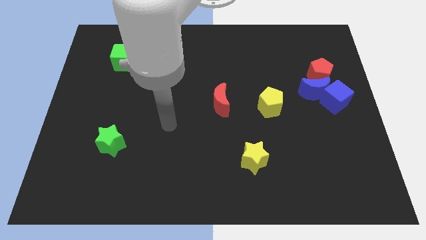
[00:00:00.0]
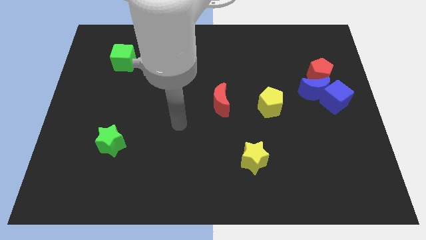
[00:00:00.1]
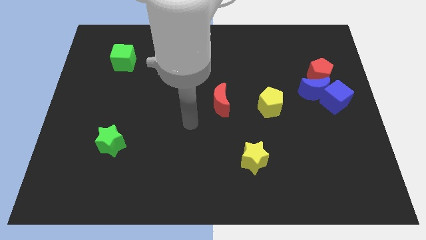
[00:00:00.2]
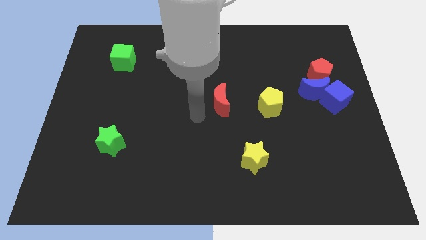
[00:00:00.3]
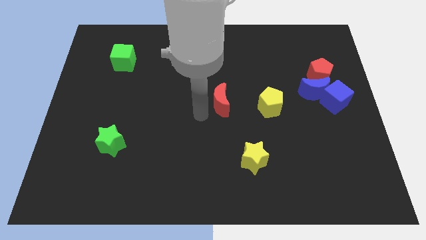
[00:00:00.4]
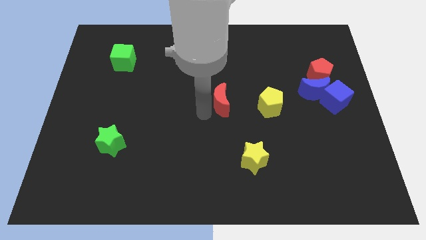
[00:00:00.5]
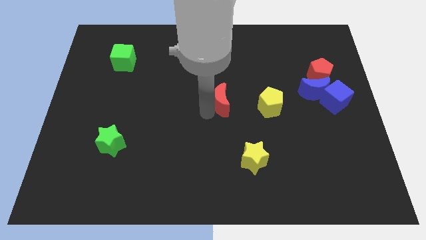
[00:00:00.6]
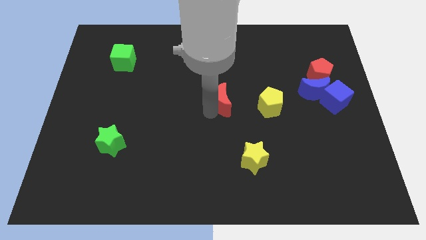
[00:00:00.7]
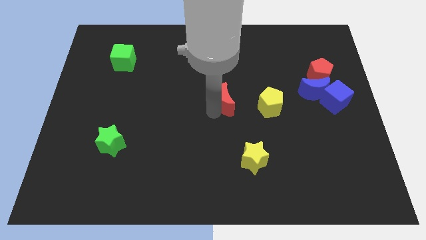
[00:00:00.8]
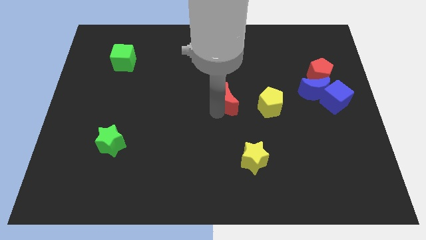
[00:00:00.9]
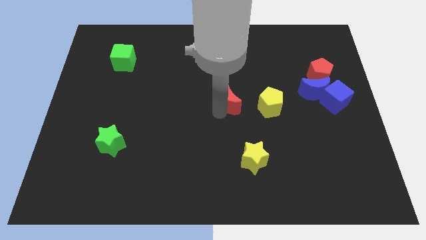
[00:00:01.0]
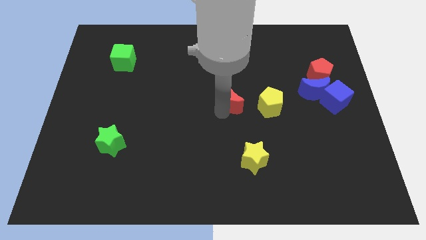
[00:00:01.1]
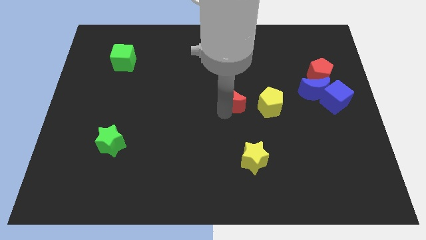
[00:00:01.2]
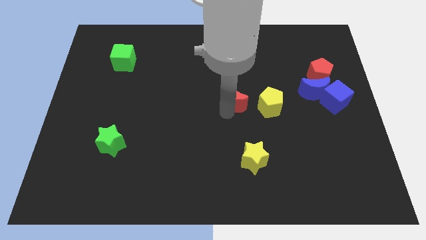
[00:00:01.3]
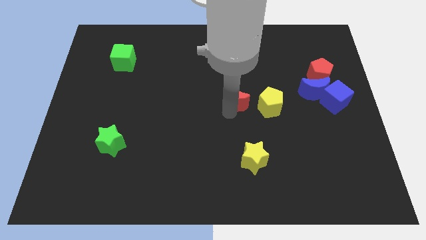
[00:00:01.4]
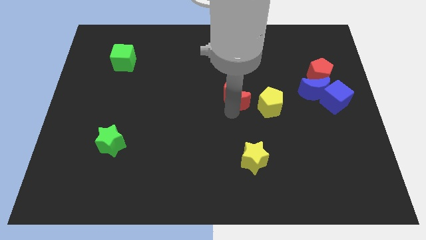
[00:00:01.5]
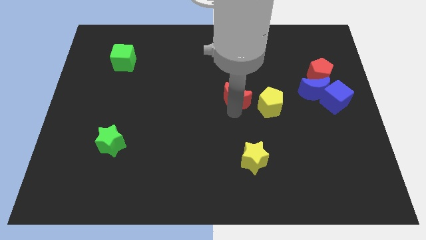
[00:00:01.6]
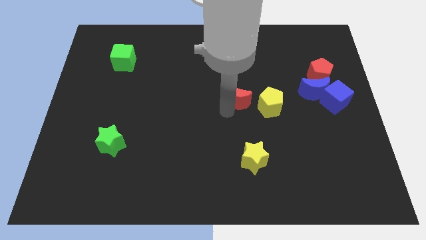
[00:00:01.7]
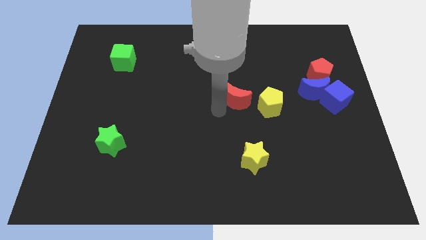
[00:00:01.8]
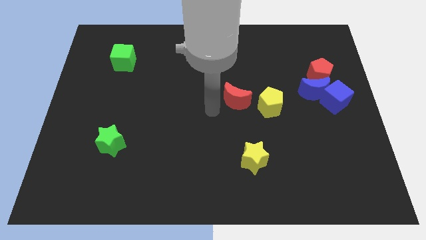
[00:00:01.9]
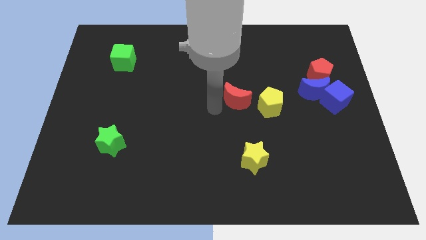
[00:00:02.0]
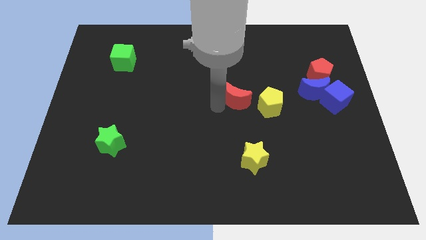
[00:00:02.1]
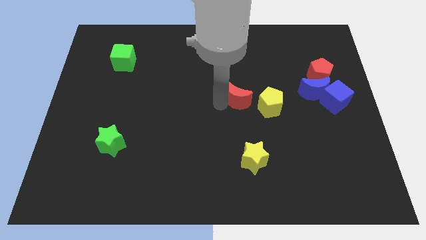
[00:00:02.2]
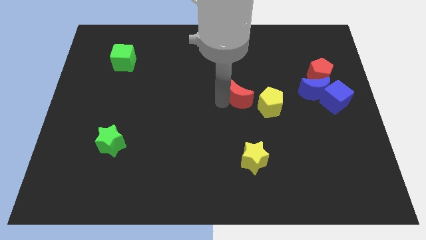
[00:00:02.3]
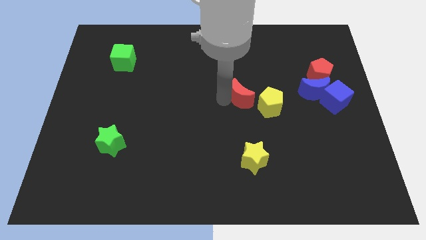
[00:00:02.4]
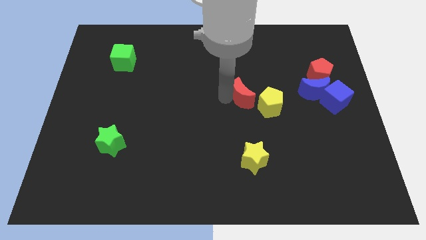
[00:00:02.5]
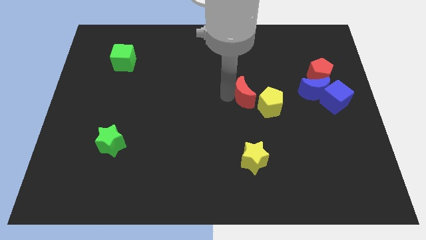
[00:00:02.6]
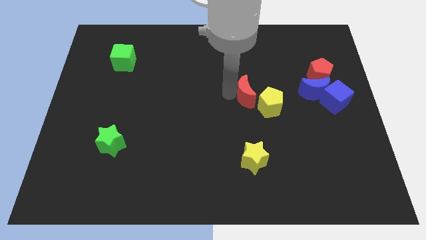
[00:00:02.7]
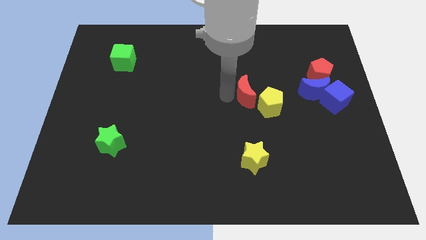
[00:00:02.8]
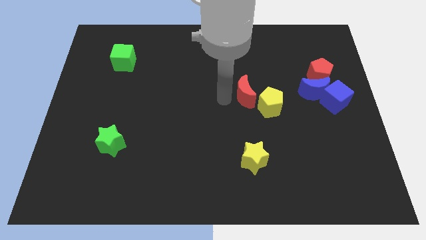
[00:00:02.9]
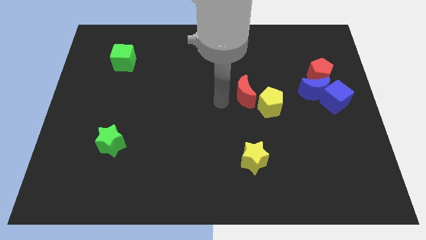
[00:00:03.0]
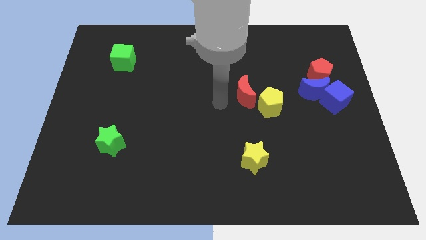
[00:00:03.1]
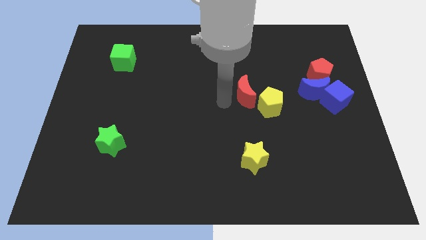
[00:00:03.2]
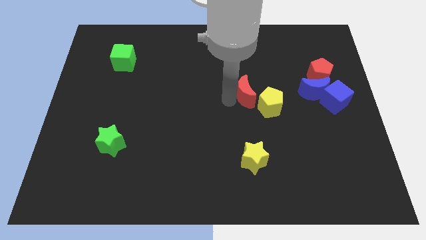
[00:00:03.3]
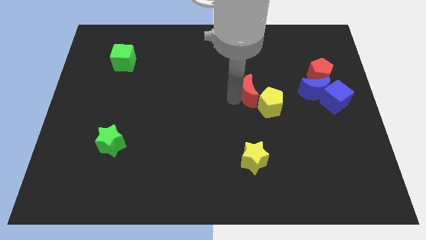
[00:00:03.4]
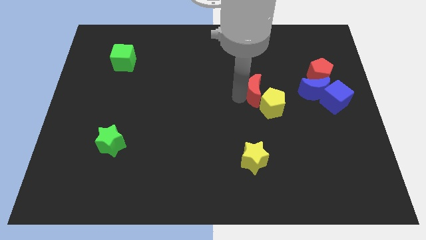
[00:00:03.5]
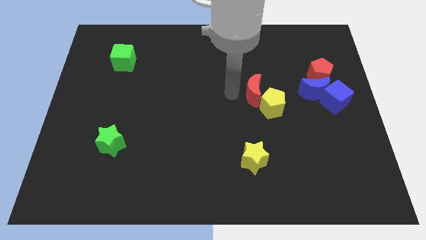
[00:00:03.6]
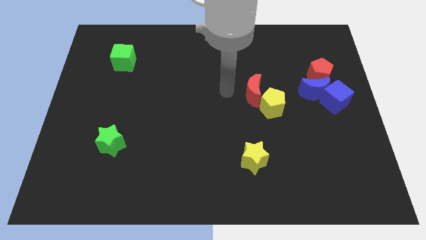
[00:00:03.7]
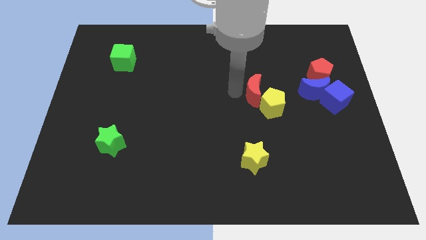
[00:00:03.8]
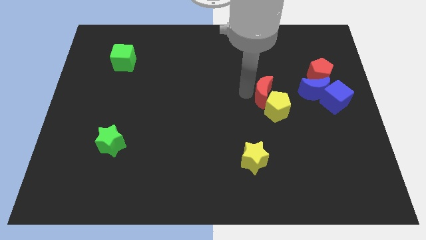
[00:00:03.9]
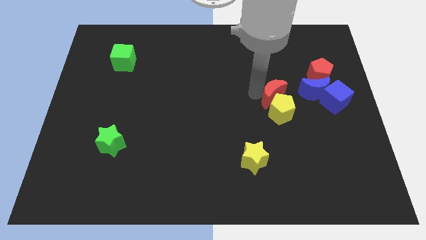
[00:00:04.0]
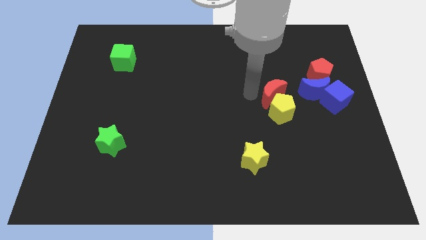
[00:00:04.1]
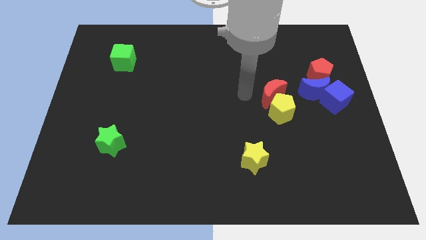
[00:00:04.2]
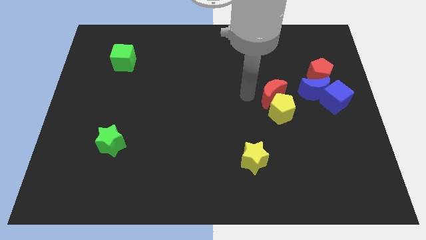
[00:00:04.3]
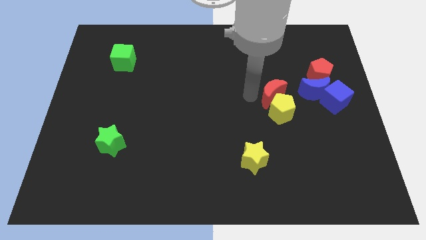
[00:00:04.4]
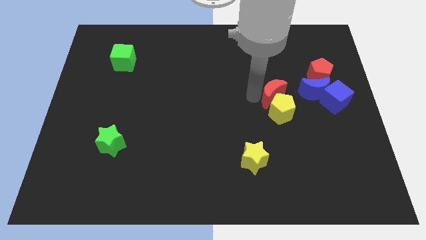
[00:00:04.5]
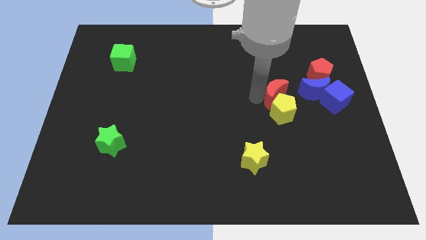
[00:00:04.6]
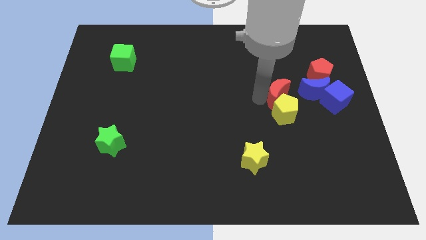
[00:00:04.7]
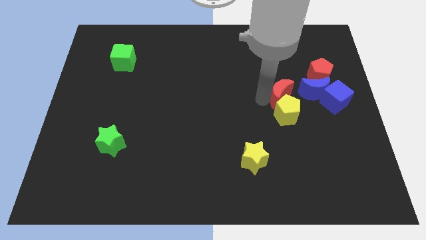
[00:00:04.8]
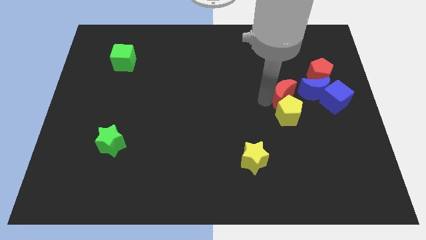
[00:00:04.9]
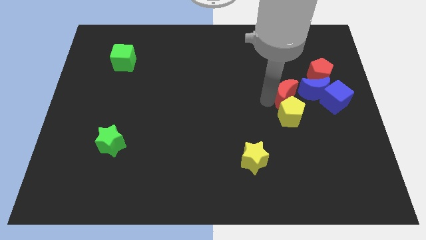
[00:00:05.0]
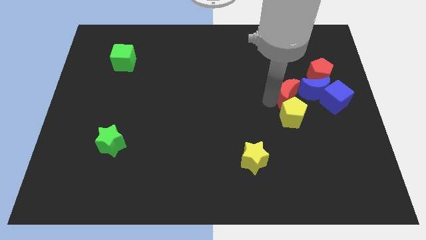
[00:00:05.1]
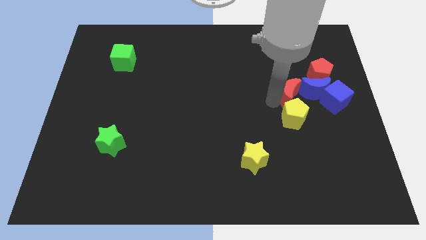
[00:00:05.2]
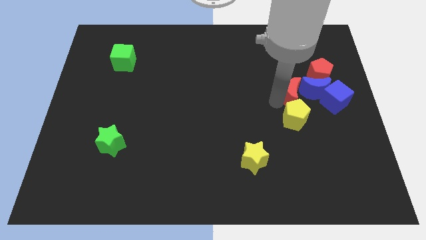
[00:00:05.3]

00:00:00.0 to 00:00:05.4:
slide the red moon to the blue moon

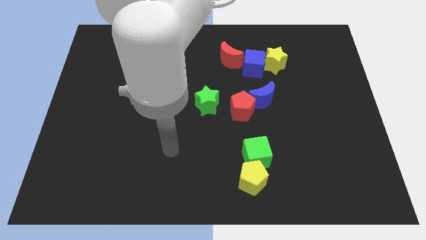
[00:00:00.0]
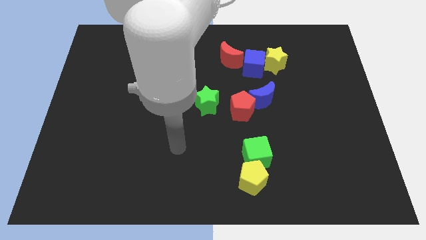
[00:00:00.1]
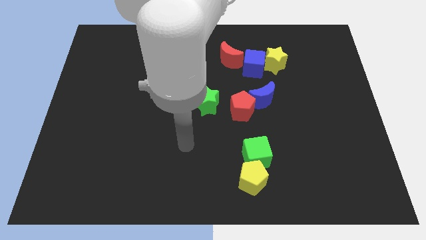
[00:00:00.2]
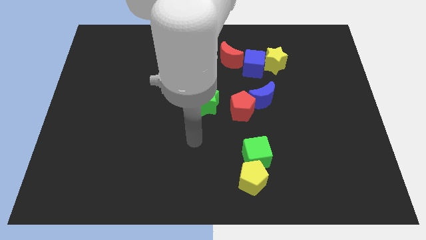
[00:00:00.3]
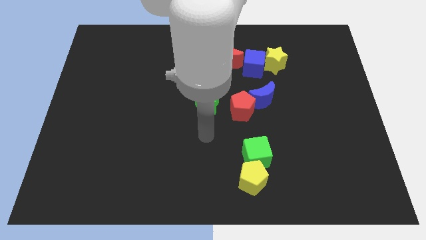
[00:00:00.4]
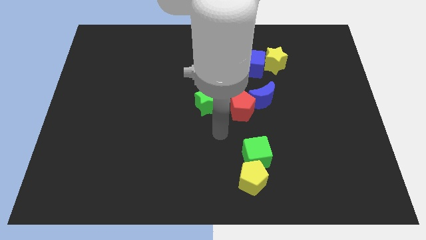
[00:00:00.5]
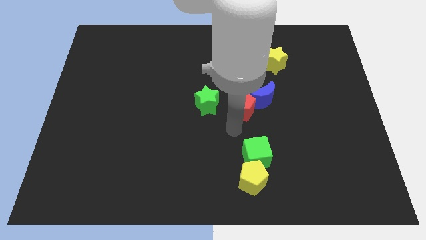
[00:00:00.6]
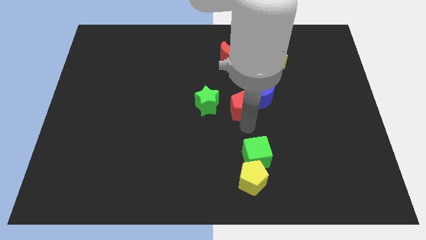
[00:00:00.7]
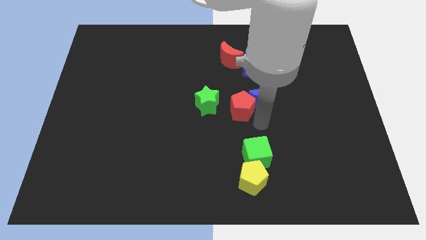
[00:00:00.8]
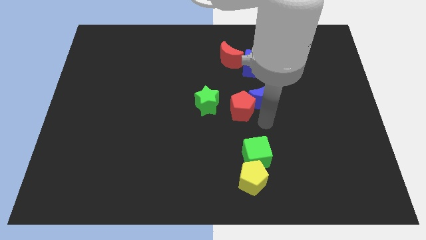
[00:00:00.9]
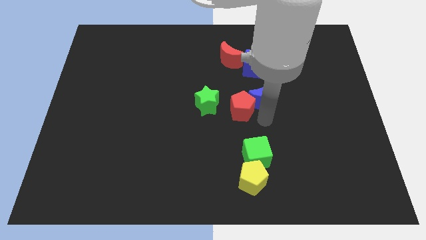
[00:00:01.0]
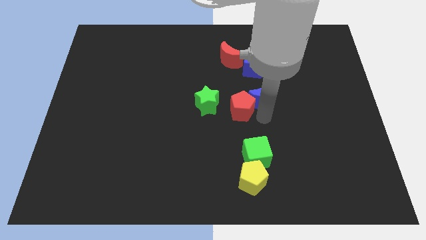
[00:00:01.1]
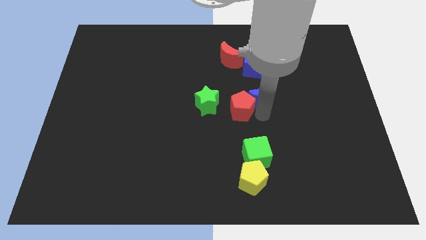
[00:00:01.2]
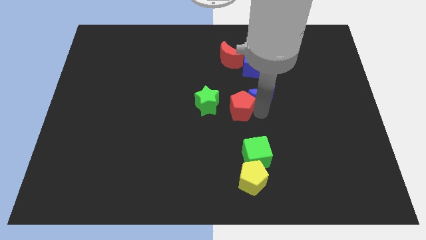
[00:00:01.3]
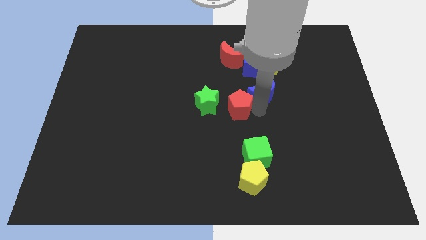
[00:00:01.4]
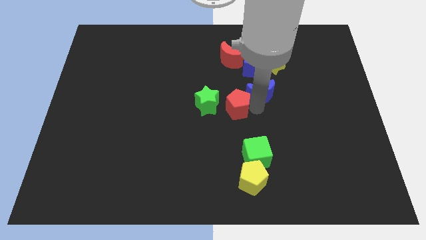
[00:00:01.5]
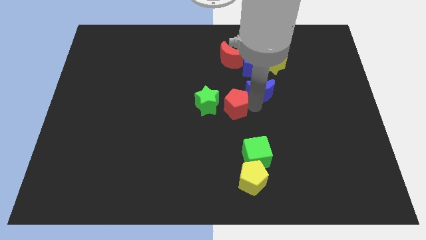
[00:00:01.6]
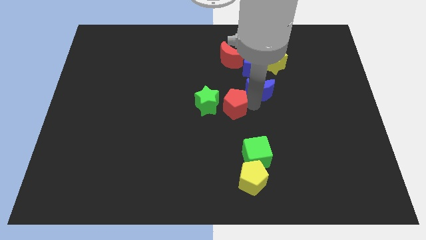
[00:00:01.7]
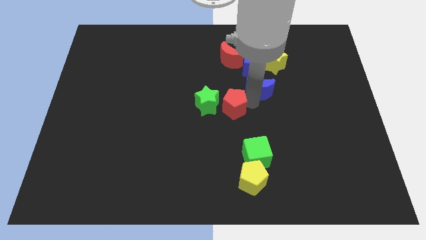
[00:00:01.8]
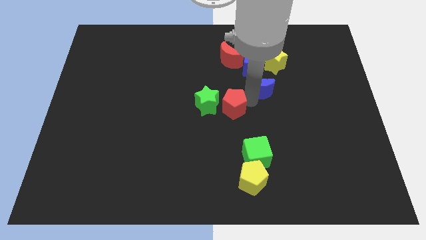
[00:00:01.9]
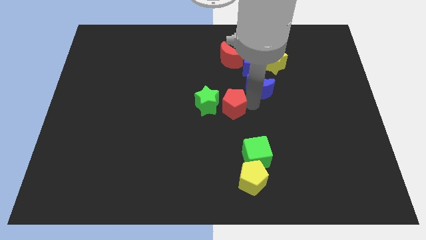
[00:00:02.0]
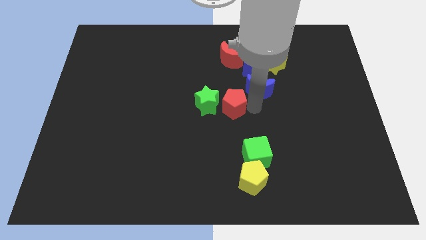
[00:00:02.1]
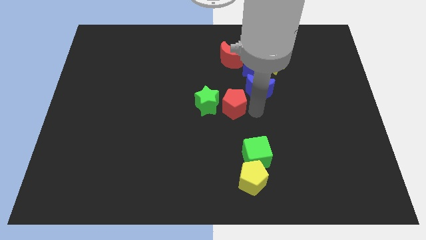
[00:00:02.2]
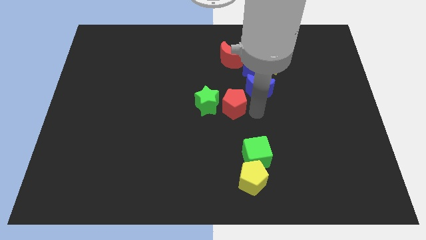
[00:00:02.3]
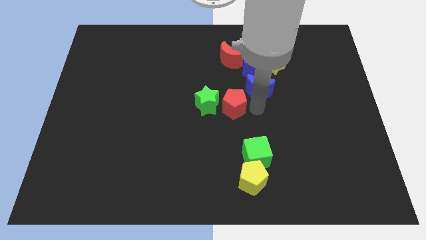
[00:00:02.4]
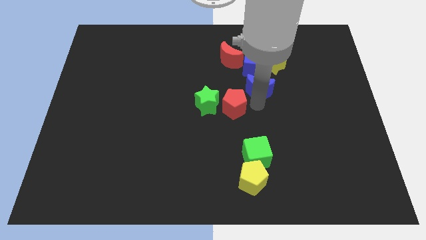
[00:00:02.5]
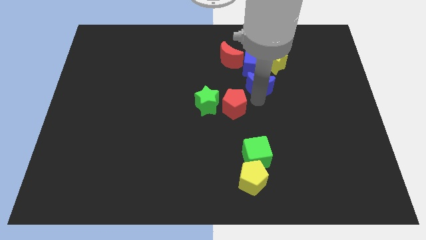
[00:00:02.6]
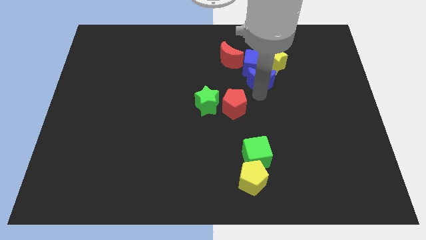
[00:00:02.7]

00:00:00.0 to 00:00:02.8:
push the blue moon to the blue cube
